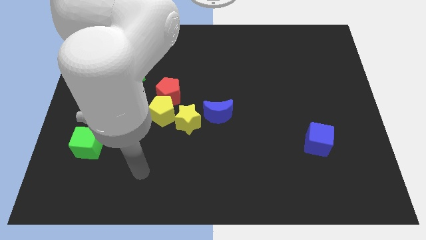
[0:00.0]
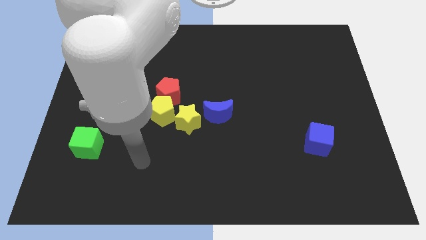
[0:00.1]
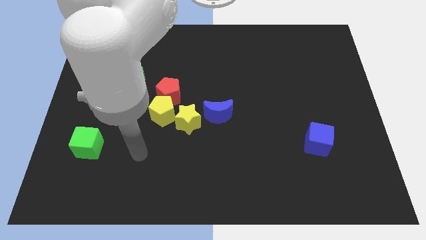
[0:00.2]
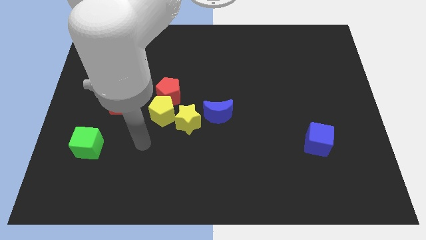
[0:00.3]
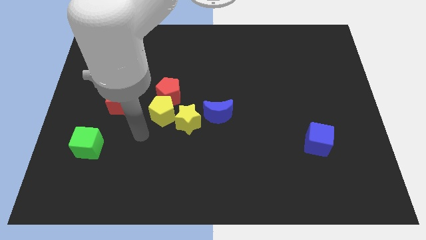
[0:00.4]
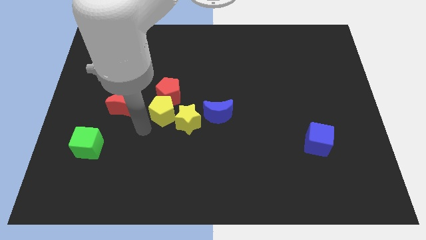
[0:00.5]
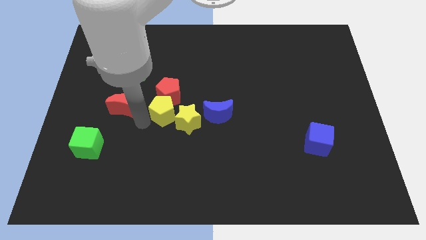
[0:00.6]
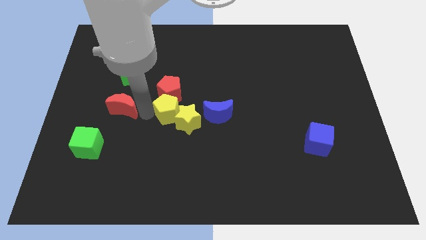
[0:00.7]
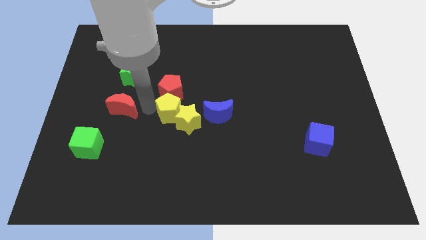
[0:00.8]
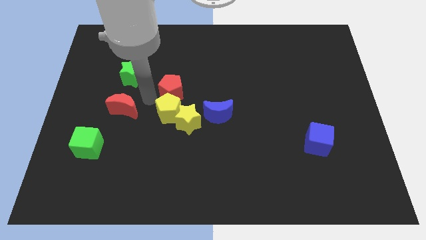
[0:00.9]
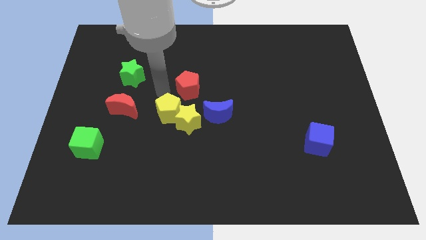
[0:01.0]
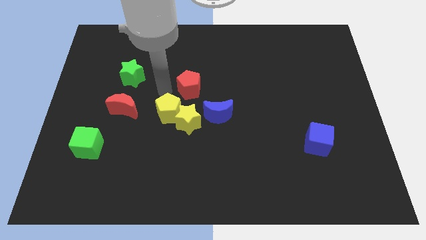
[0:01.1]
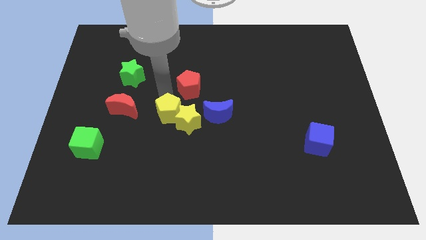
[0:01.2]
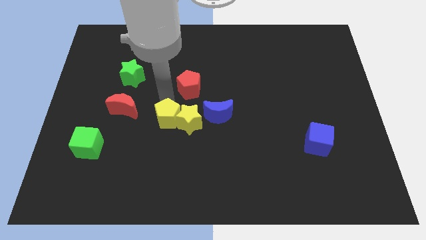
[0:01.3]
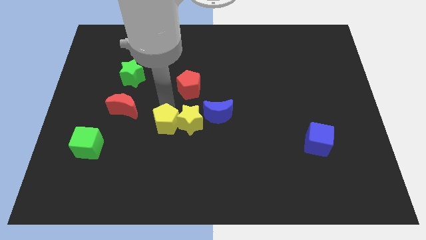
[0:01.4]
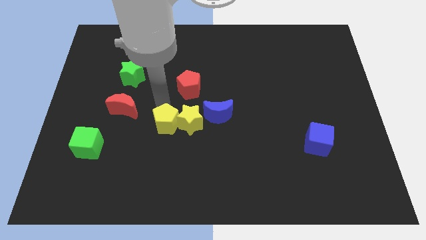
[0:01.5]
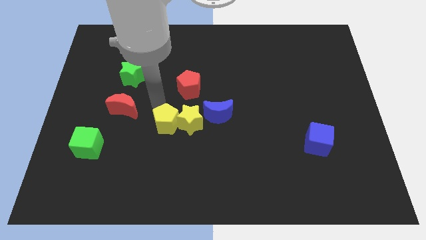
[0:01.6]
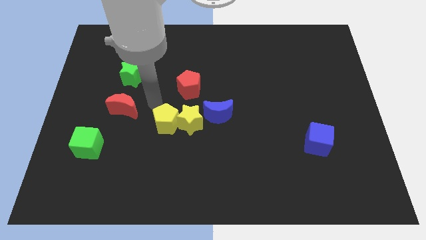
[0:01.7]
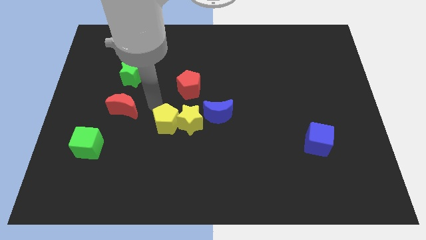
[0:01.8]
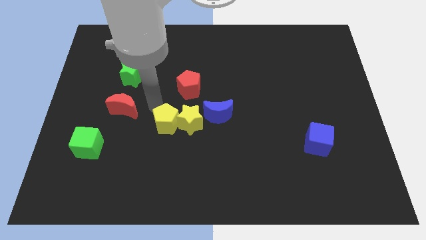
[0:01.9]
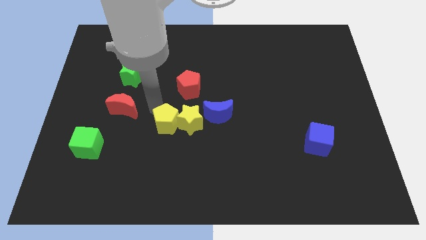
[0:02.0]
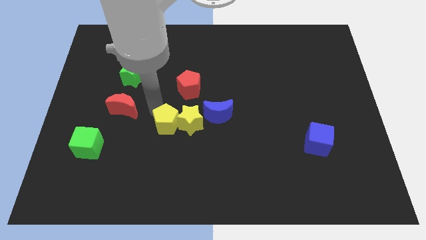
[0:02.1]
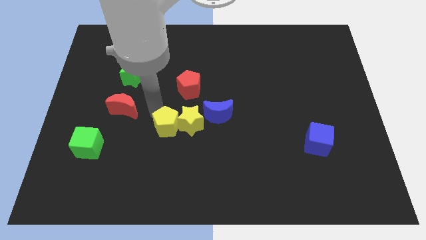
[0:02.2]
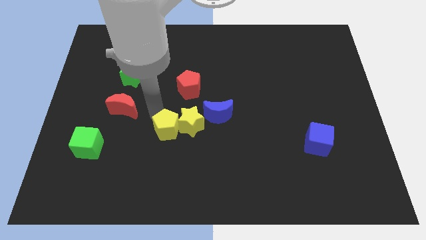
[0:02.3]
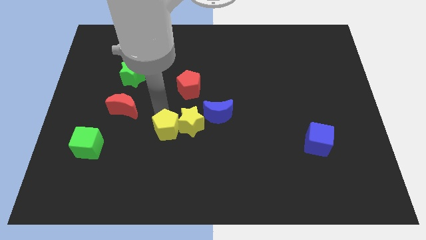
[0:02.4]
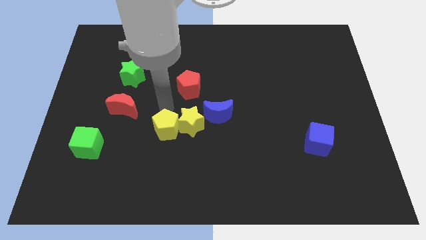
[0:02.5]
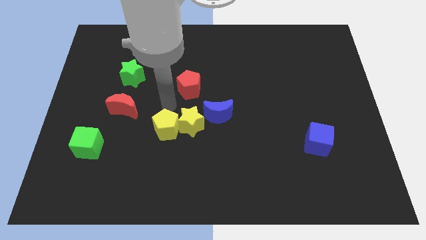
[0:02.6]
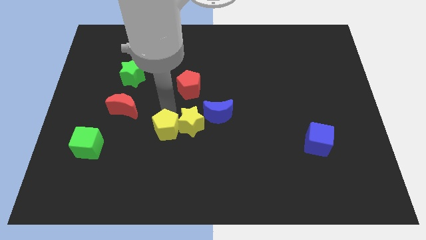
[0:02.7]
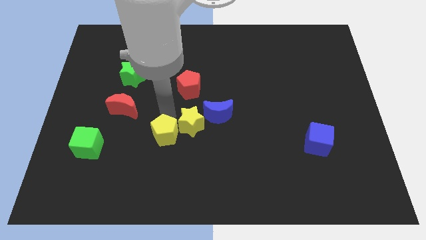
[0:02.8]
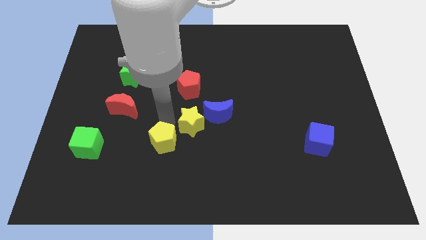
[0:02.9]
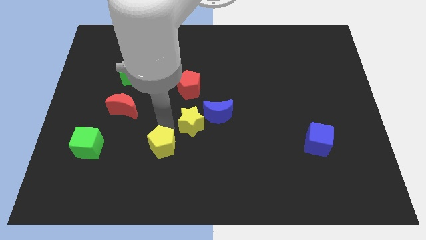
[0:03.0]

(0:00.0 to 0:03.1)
pull the yellow pentagon apart from the group of blocks

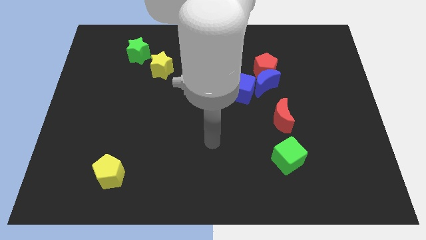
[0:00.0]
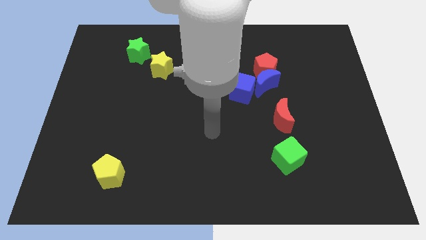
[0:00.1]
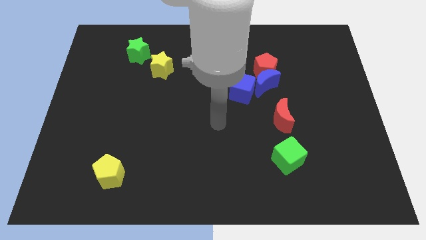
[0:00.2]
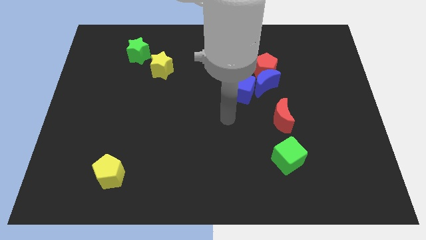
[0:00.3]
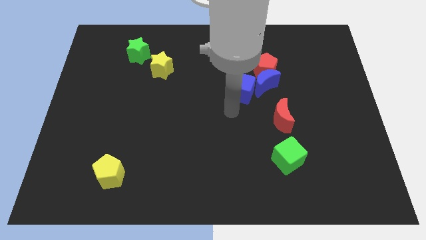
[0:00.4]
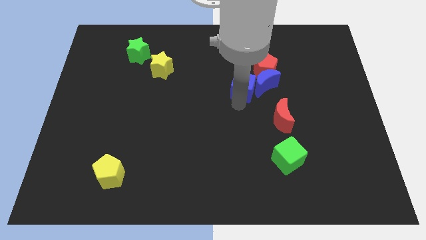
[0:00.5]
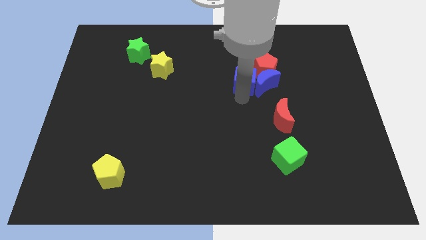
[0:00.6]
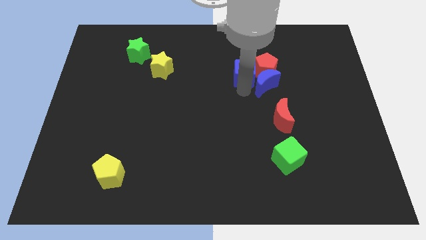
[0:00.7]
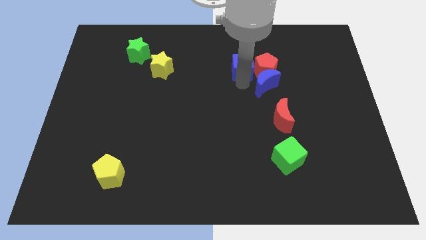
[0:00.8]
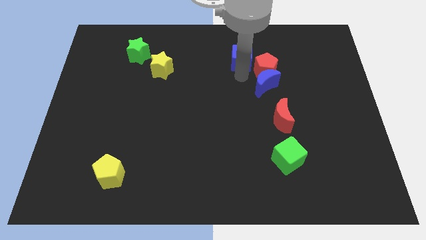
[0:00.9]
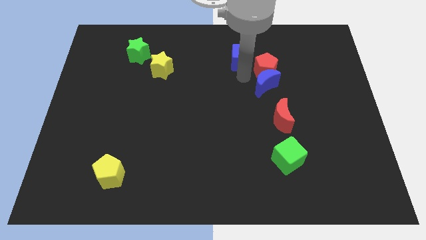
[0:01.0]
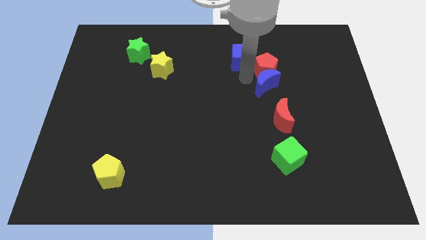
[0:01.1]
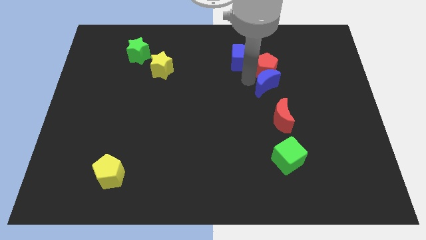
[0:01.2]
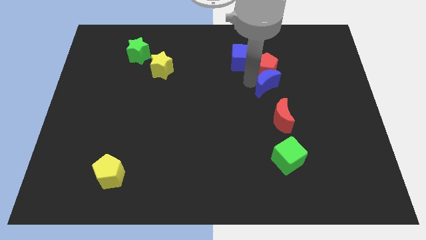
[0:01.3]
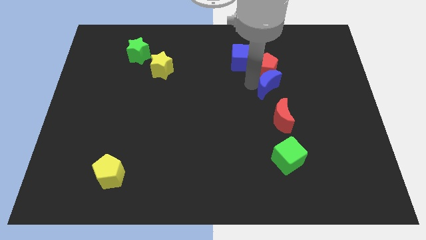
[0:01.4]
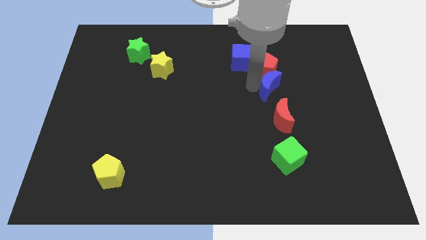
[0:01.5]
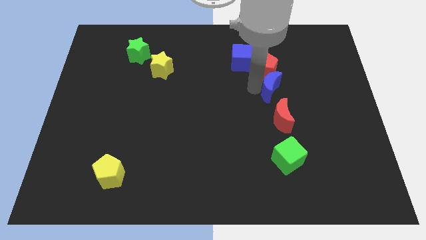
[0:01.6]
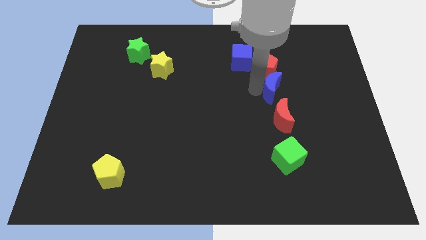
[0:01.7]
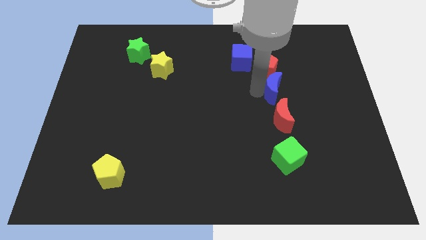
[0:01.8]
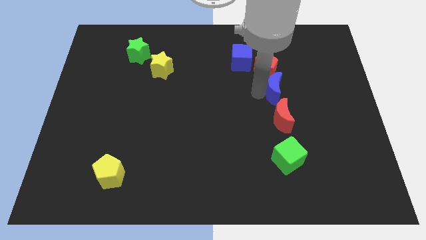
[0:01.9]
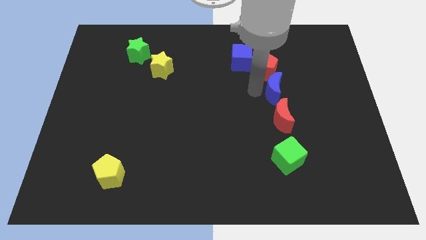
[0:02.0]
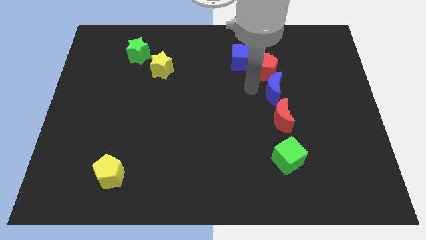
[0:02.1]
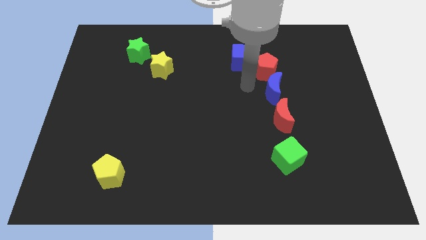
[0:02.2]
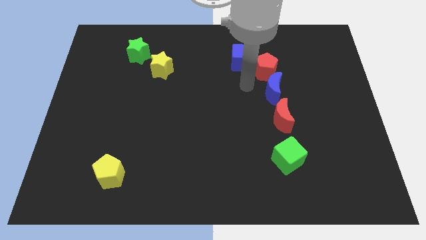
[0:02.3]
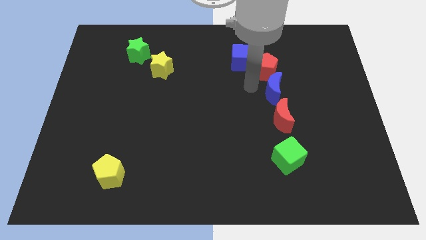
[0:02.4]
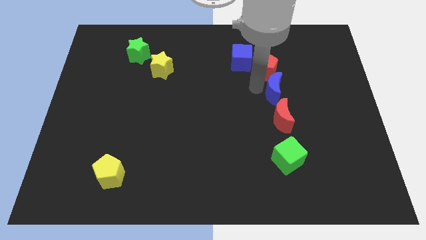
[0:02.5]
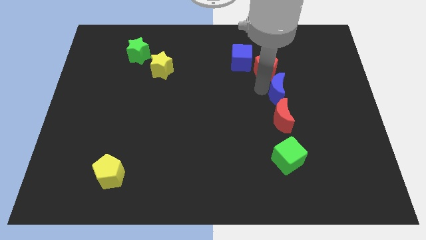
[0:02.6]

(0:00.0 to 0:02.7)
move the blue moon away from the red pentagon and blue cube

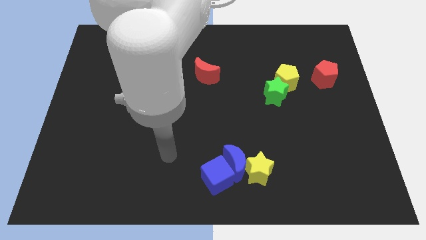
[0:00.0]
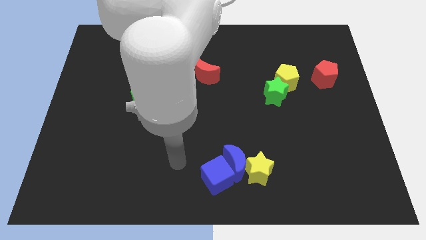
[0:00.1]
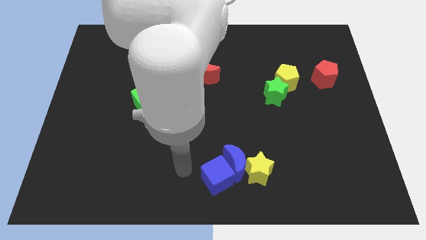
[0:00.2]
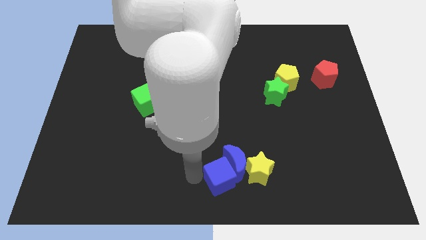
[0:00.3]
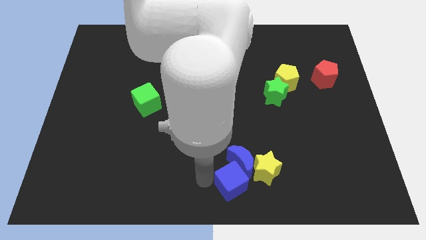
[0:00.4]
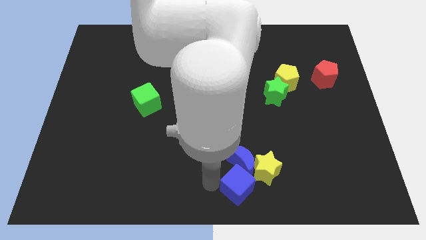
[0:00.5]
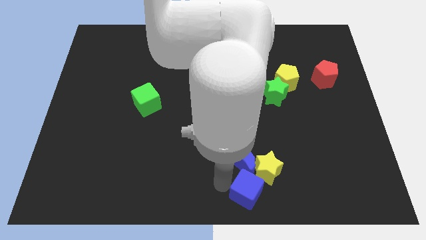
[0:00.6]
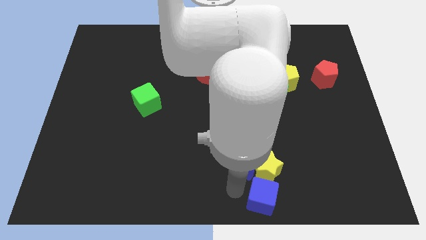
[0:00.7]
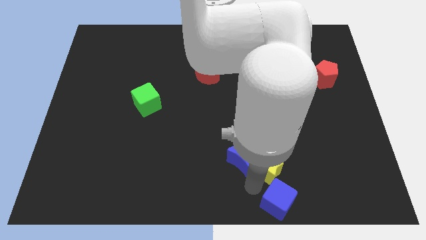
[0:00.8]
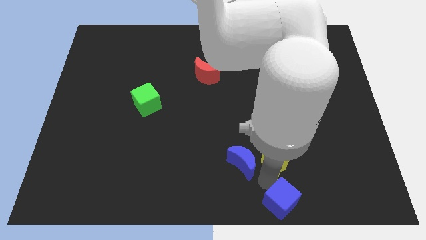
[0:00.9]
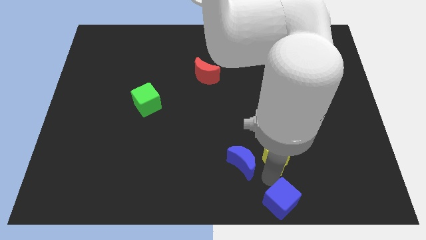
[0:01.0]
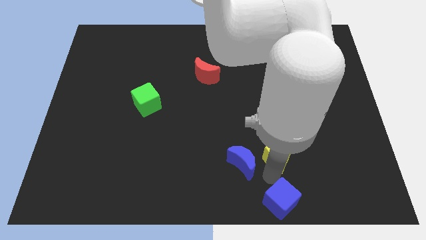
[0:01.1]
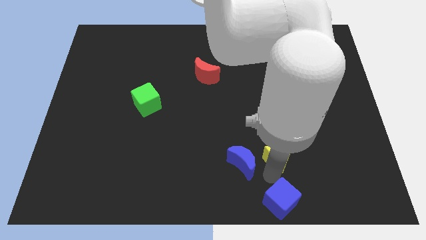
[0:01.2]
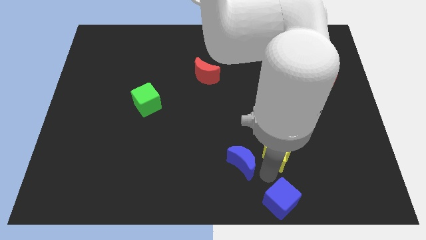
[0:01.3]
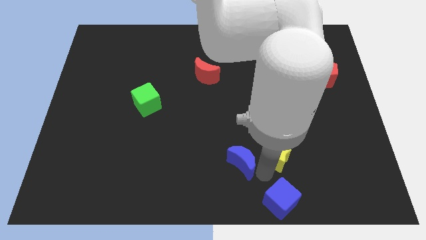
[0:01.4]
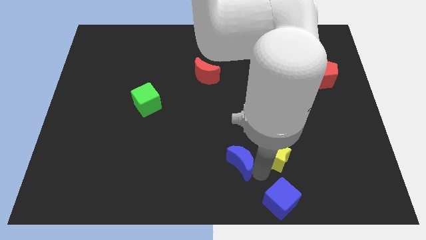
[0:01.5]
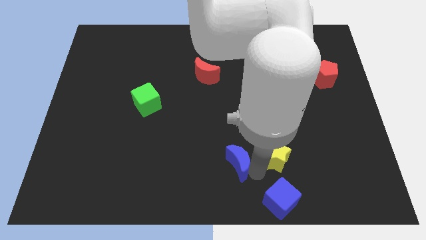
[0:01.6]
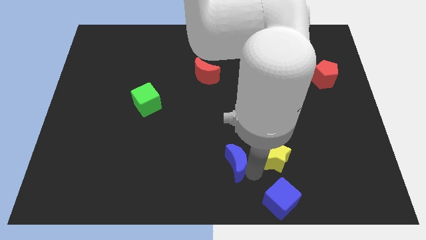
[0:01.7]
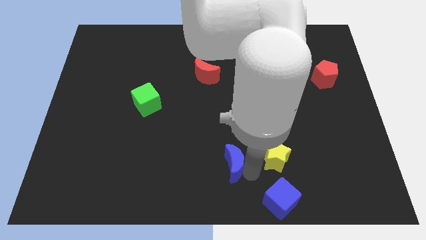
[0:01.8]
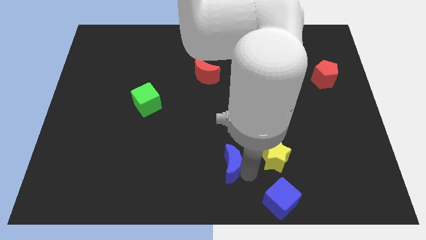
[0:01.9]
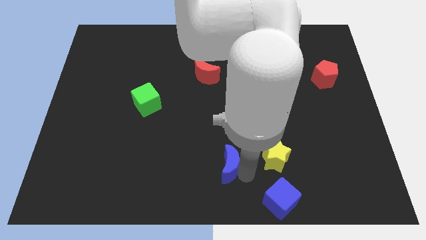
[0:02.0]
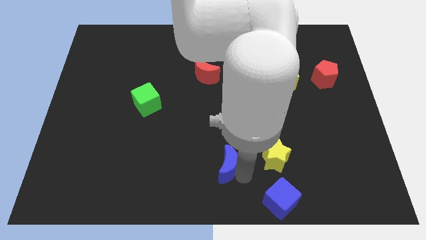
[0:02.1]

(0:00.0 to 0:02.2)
move the blue moon away from the yellow star and blue cube

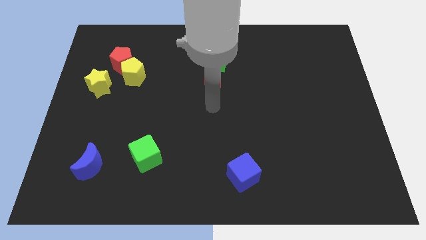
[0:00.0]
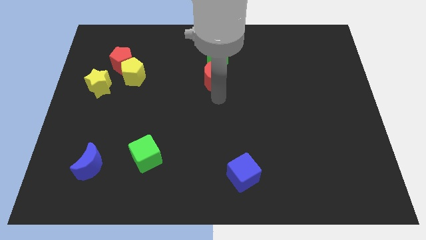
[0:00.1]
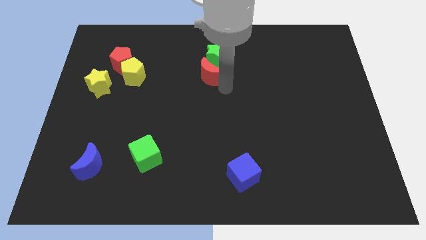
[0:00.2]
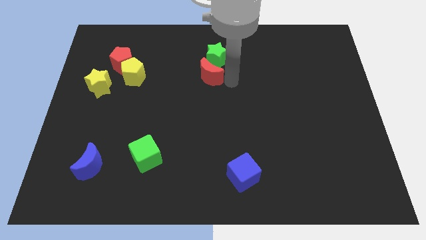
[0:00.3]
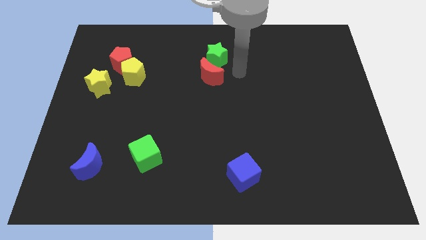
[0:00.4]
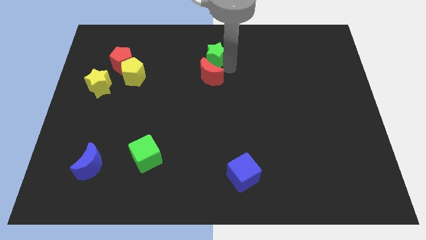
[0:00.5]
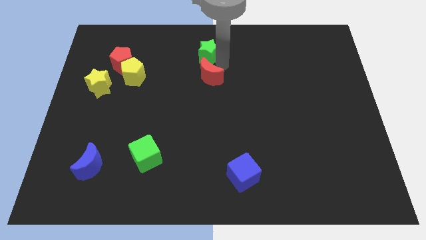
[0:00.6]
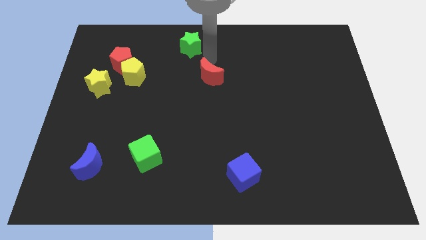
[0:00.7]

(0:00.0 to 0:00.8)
pull the red moon apart from the green star

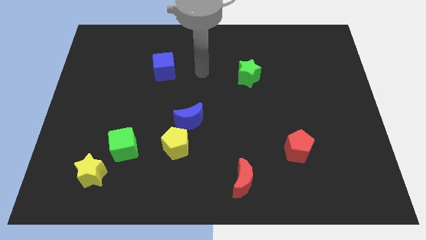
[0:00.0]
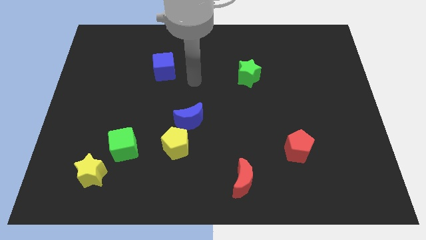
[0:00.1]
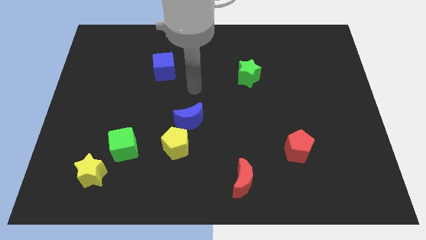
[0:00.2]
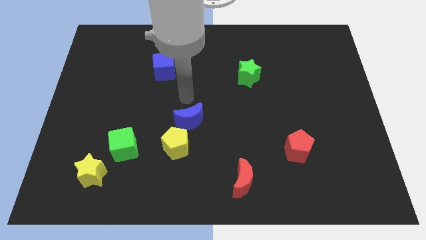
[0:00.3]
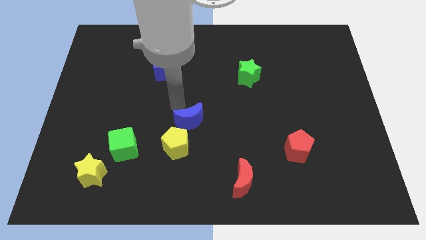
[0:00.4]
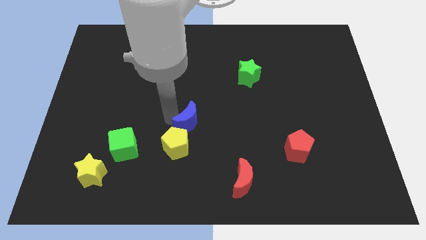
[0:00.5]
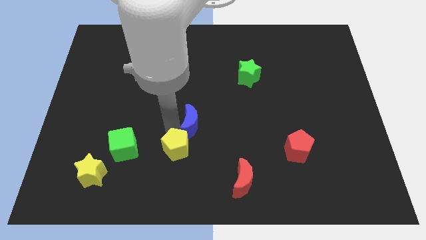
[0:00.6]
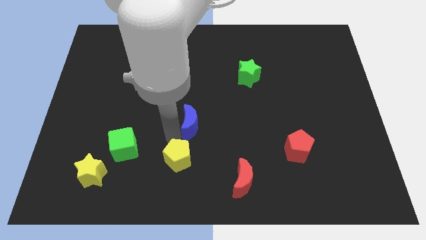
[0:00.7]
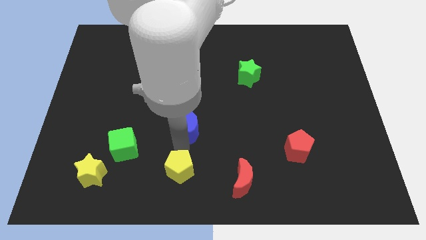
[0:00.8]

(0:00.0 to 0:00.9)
pull the blue moon apart from the yellow pentagon
